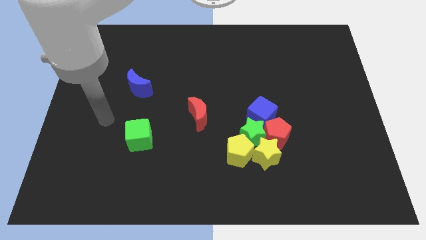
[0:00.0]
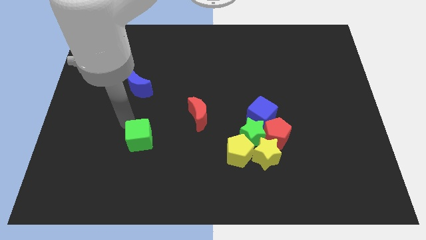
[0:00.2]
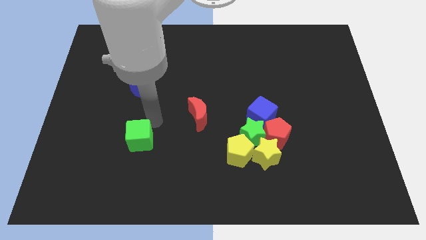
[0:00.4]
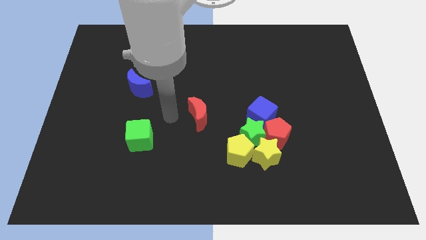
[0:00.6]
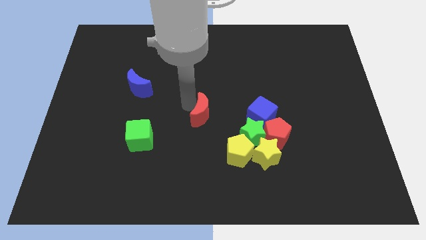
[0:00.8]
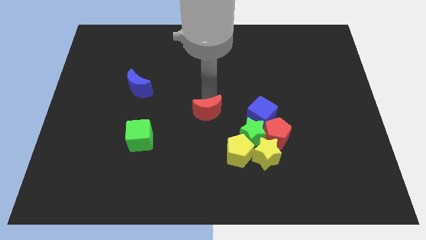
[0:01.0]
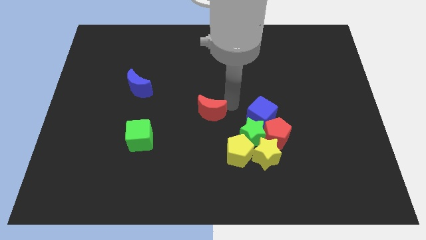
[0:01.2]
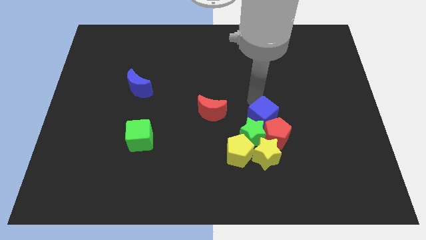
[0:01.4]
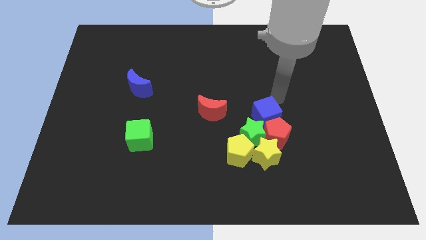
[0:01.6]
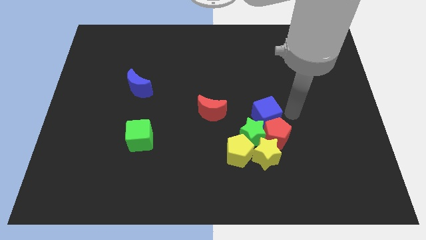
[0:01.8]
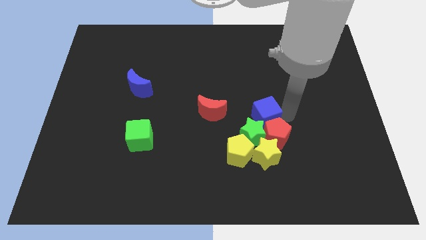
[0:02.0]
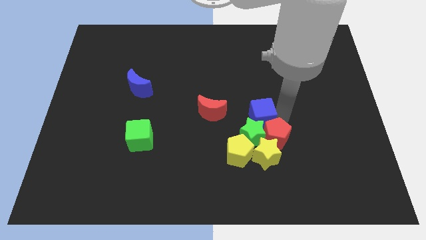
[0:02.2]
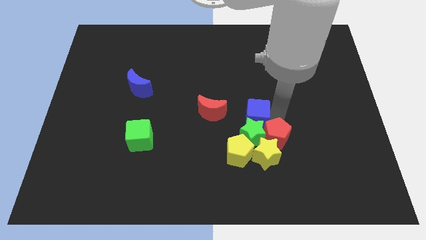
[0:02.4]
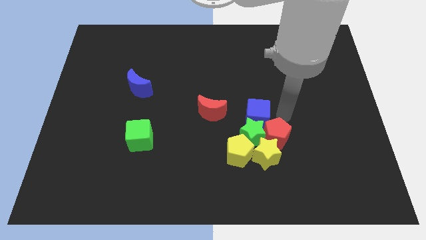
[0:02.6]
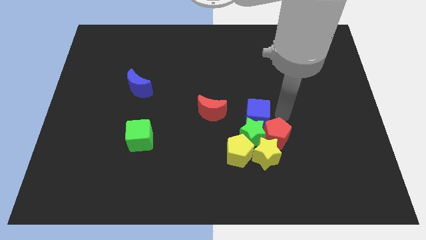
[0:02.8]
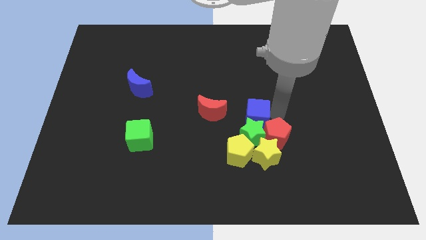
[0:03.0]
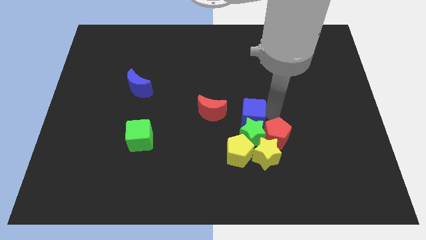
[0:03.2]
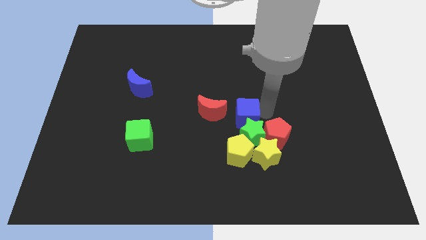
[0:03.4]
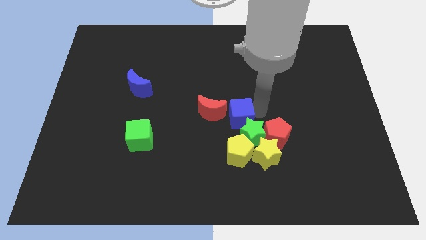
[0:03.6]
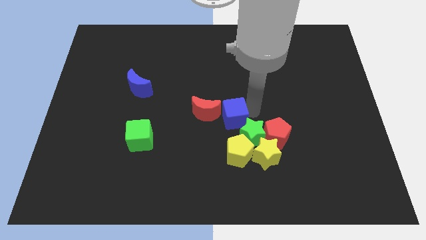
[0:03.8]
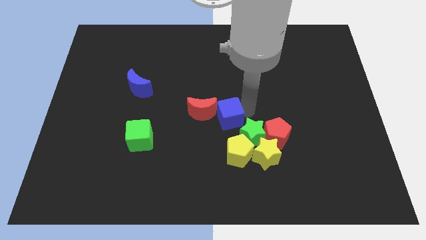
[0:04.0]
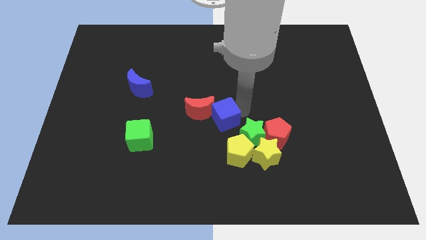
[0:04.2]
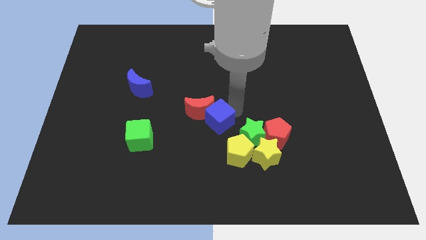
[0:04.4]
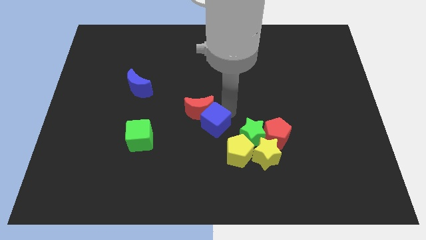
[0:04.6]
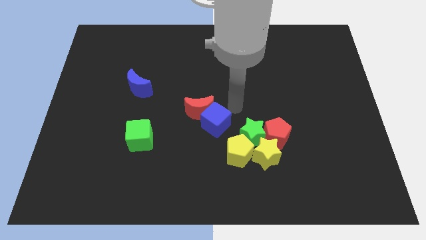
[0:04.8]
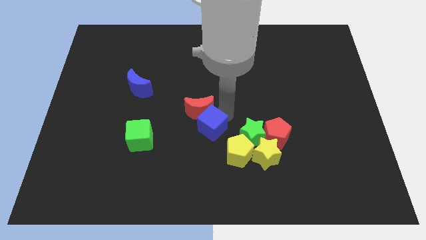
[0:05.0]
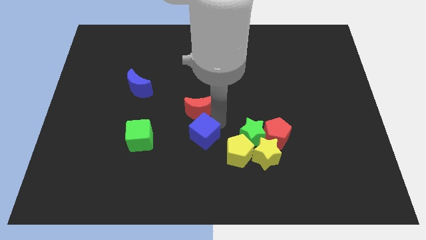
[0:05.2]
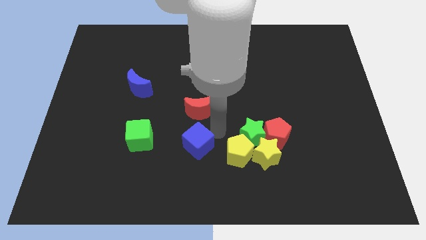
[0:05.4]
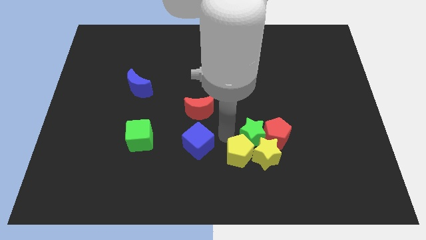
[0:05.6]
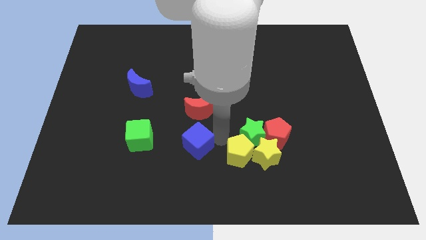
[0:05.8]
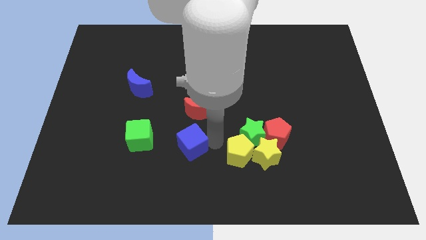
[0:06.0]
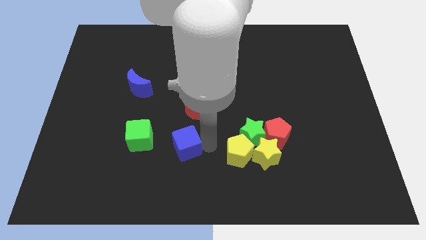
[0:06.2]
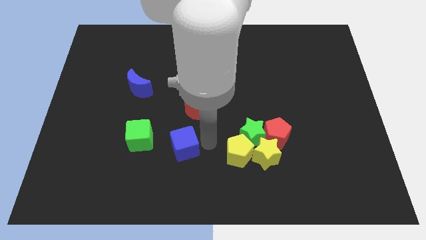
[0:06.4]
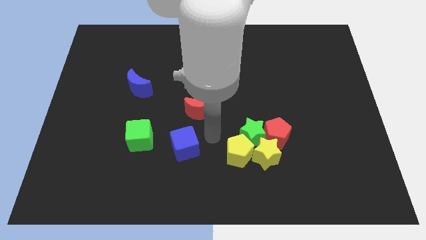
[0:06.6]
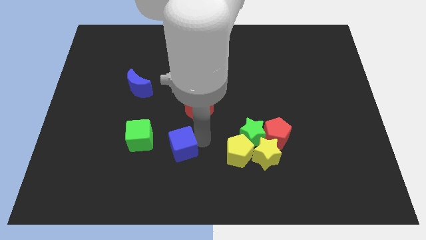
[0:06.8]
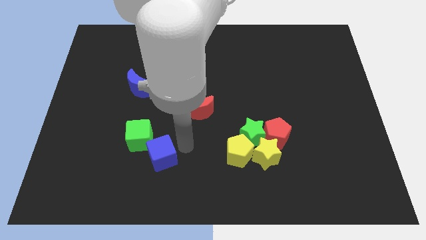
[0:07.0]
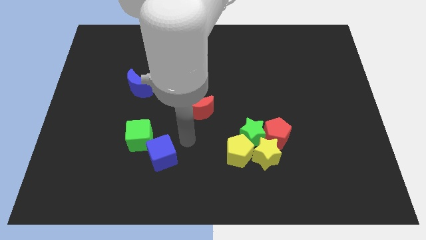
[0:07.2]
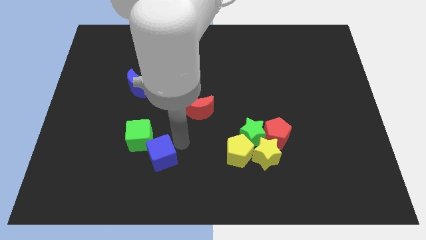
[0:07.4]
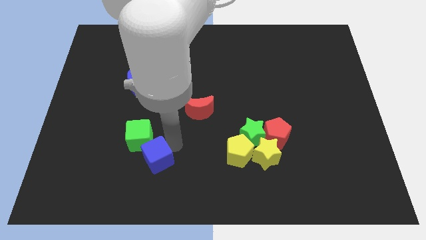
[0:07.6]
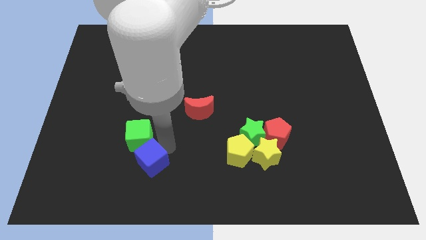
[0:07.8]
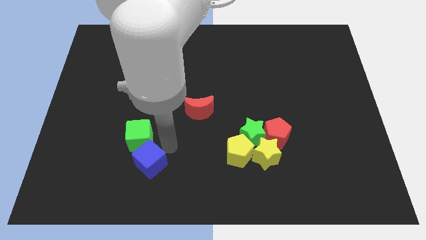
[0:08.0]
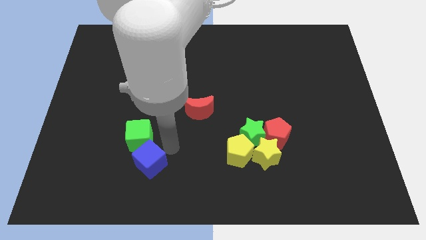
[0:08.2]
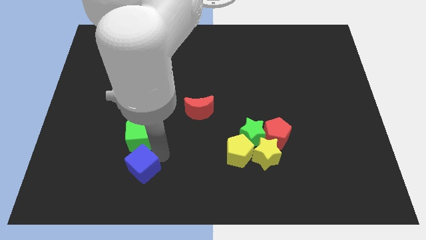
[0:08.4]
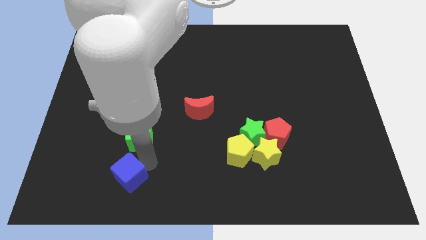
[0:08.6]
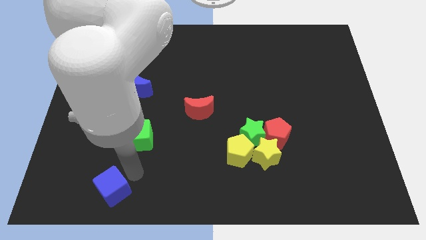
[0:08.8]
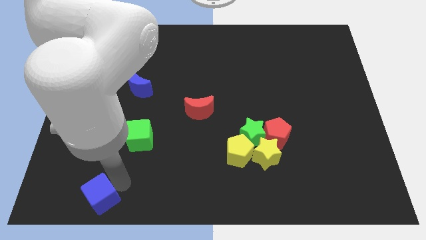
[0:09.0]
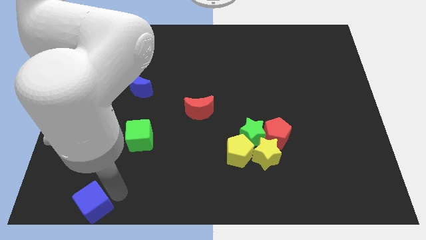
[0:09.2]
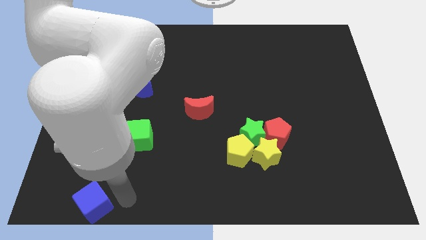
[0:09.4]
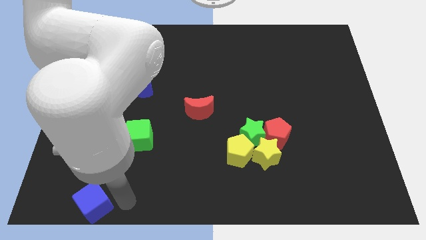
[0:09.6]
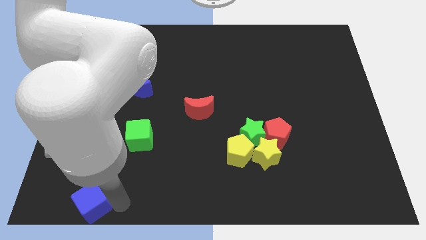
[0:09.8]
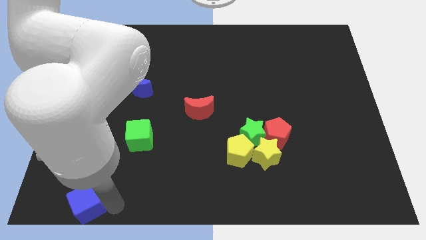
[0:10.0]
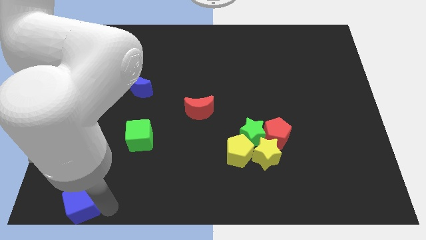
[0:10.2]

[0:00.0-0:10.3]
push the blue cube to the bottom left

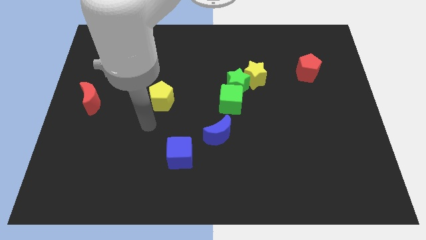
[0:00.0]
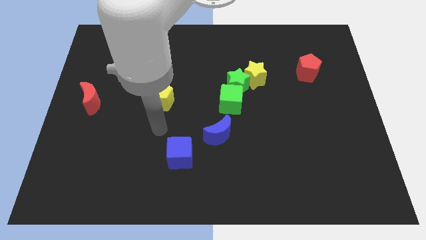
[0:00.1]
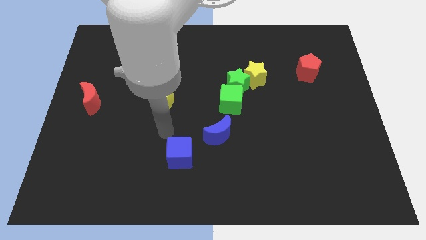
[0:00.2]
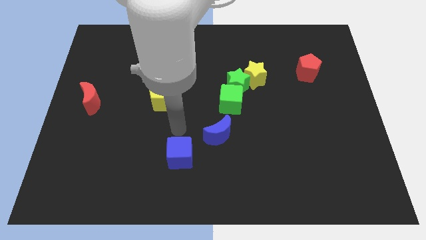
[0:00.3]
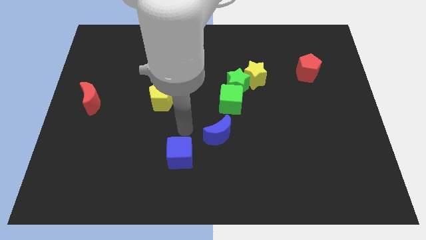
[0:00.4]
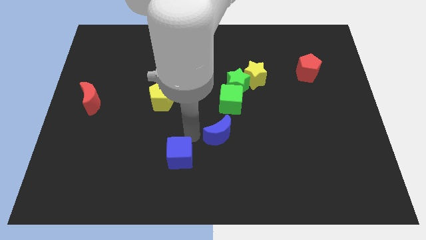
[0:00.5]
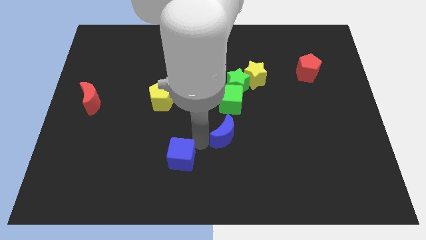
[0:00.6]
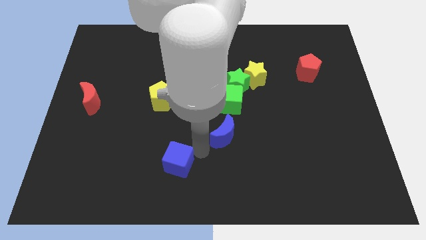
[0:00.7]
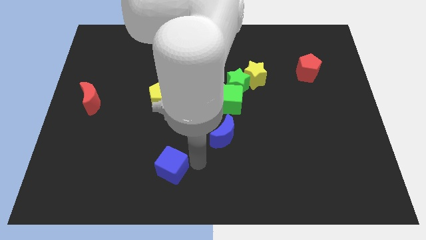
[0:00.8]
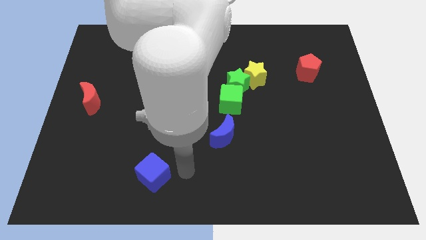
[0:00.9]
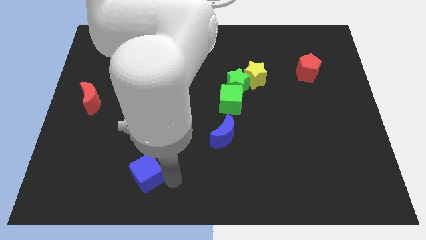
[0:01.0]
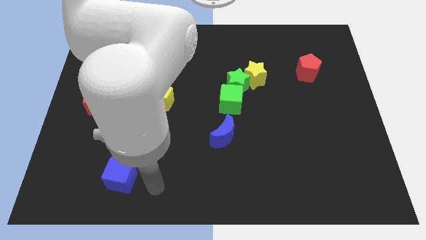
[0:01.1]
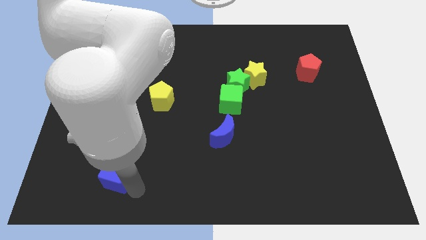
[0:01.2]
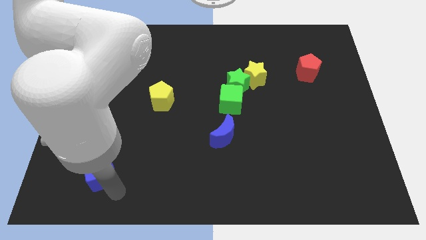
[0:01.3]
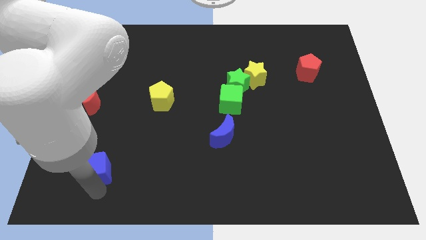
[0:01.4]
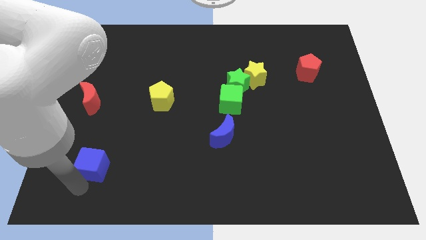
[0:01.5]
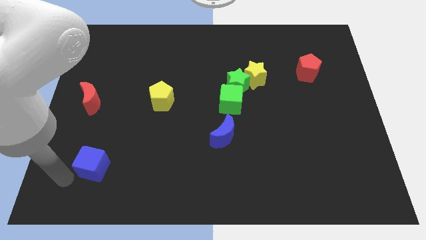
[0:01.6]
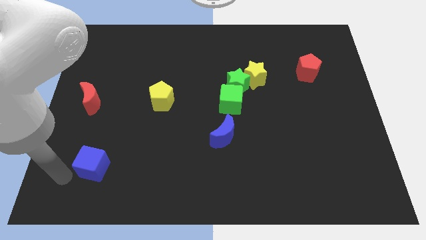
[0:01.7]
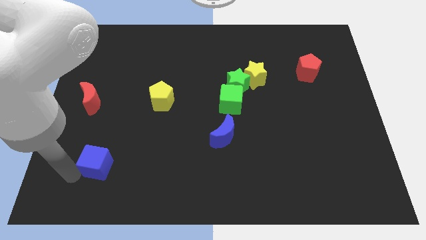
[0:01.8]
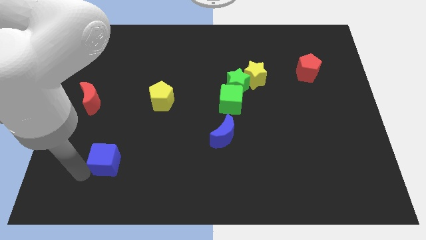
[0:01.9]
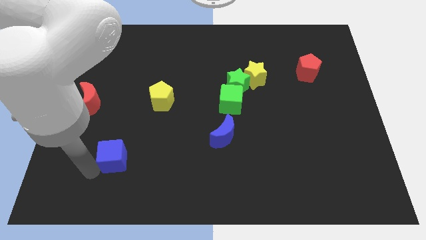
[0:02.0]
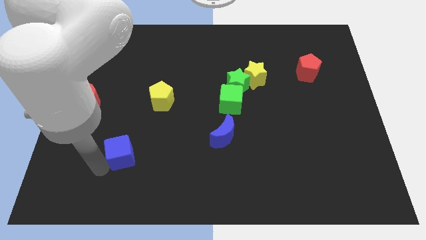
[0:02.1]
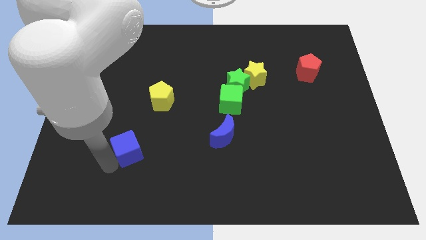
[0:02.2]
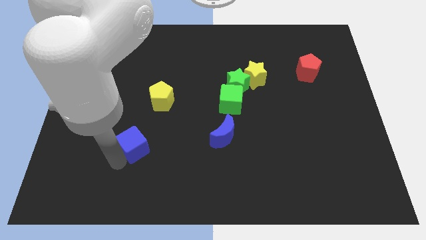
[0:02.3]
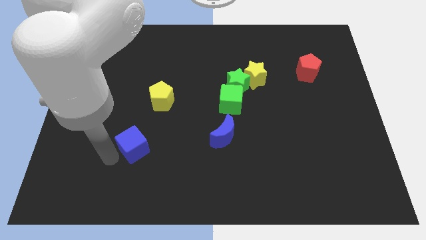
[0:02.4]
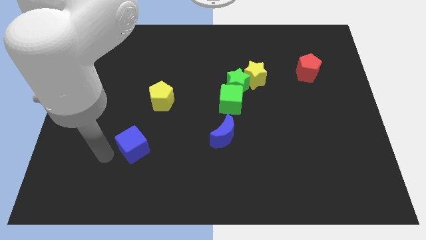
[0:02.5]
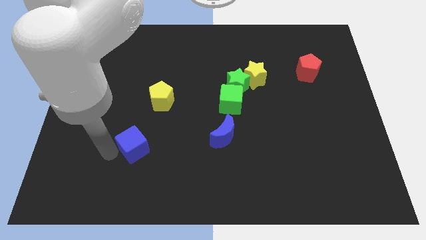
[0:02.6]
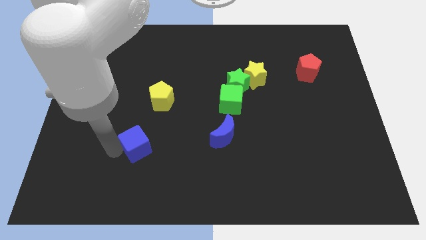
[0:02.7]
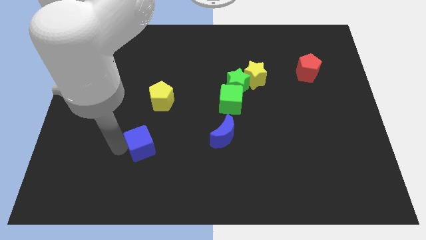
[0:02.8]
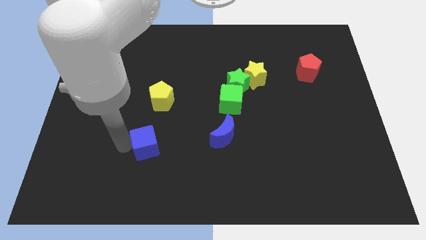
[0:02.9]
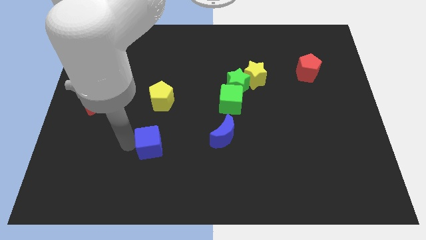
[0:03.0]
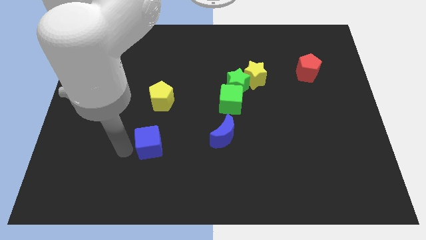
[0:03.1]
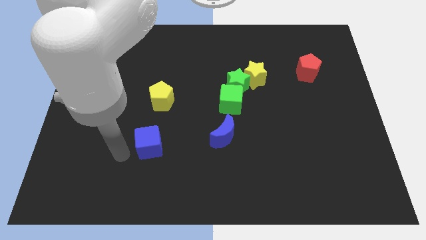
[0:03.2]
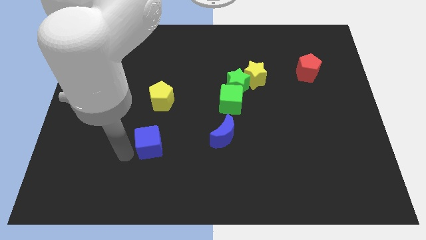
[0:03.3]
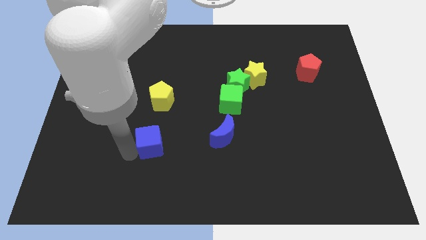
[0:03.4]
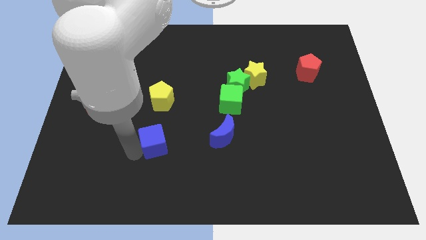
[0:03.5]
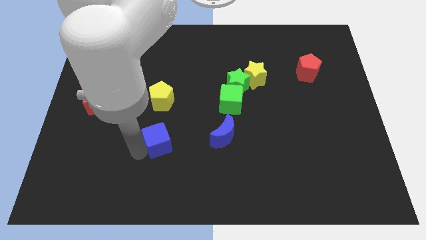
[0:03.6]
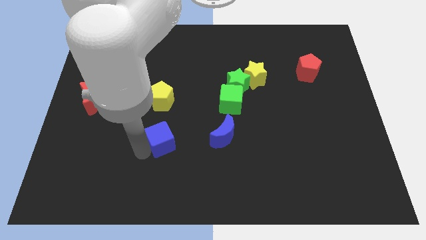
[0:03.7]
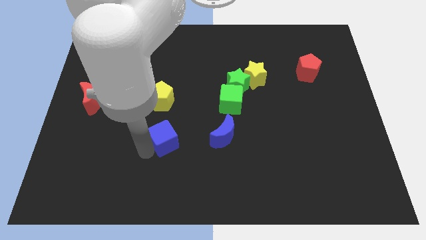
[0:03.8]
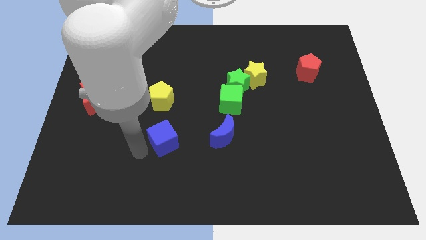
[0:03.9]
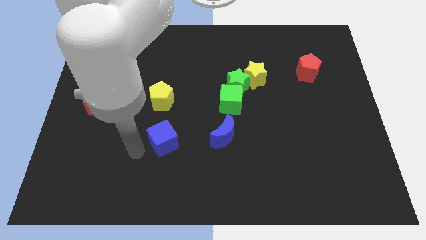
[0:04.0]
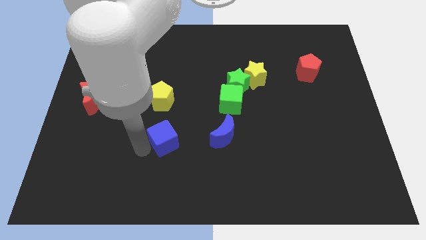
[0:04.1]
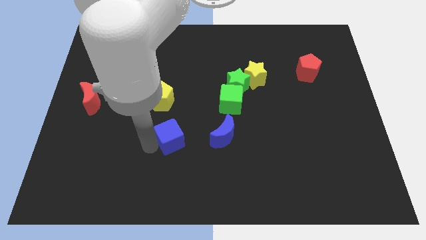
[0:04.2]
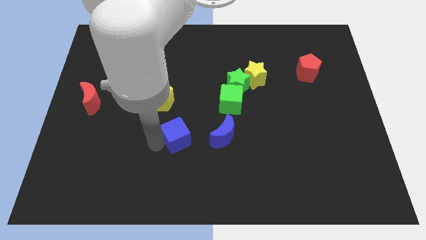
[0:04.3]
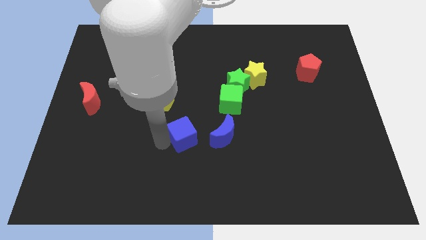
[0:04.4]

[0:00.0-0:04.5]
slide the blue cube to the center
